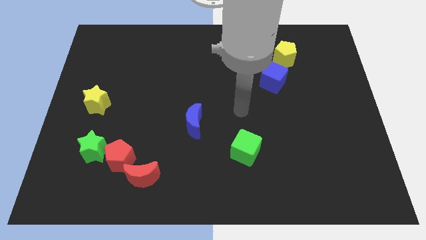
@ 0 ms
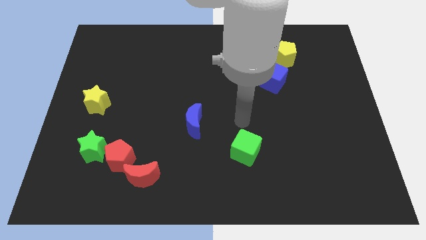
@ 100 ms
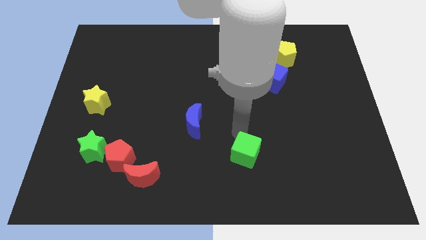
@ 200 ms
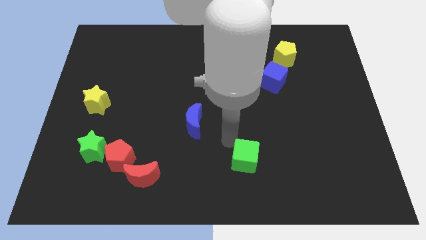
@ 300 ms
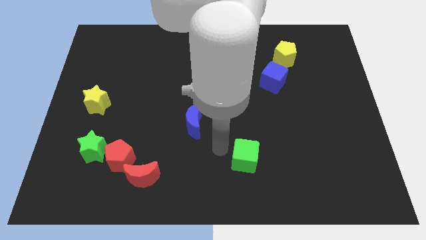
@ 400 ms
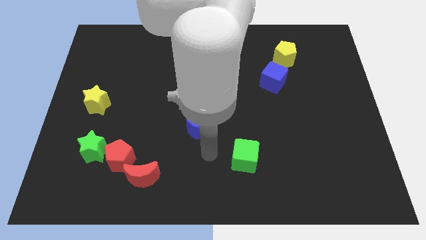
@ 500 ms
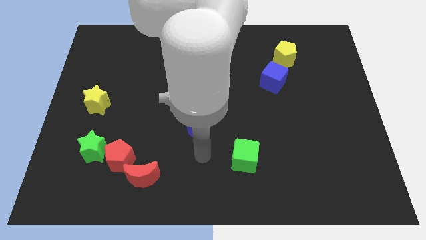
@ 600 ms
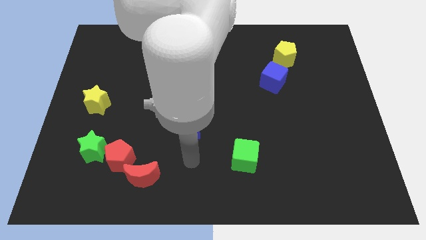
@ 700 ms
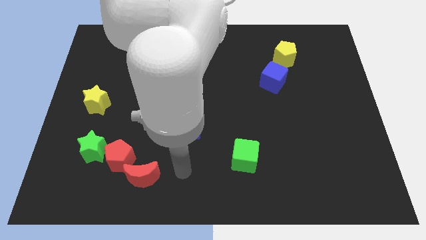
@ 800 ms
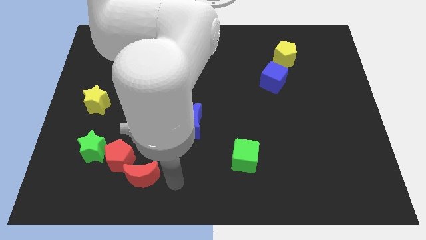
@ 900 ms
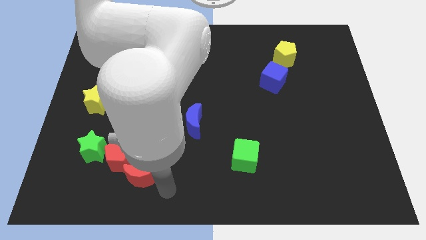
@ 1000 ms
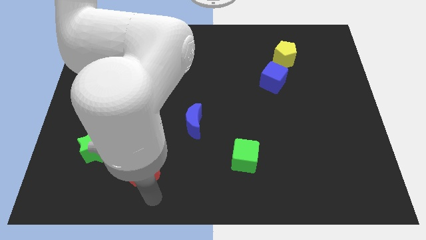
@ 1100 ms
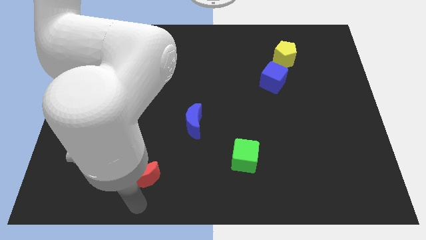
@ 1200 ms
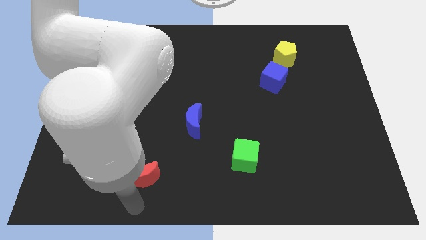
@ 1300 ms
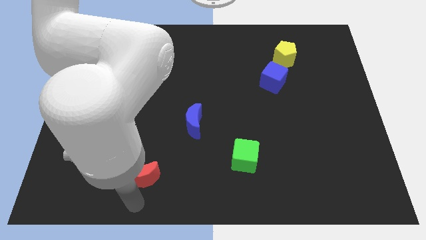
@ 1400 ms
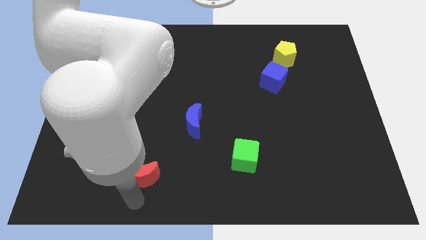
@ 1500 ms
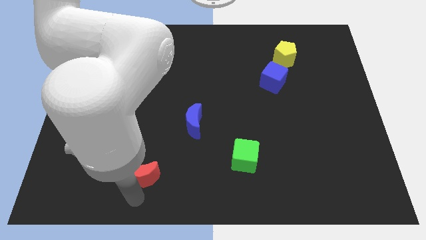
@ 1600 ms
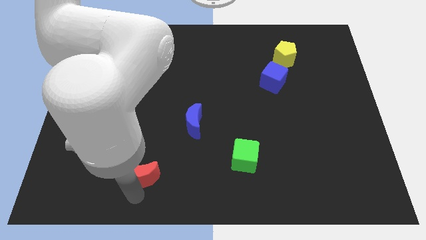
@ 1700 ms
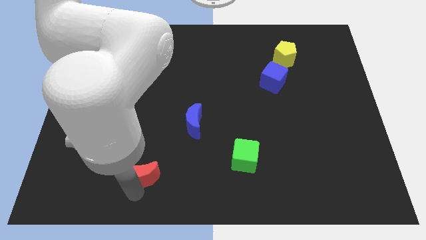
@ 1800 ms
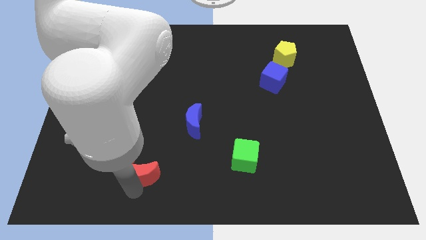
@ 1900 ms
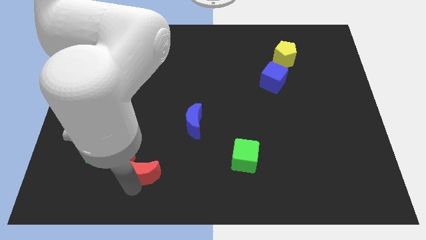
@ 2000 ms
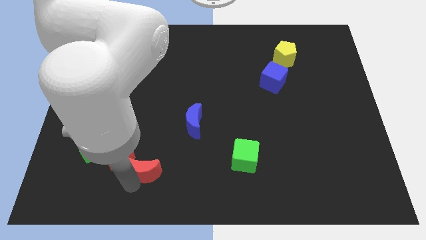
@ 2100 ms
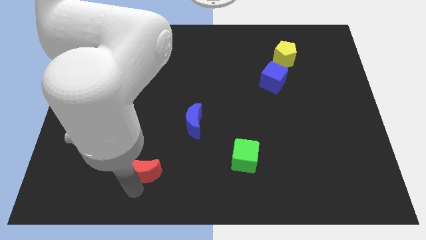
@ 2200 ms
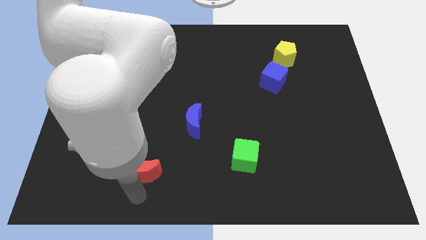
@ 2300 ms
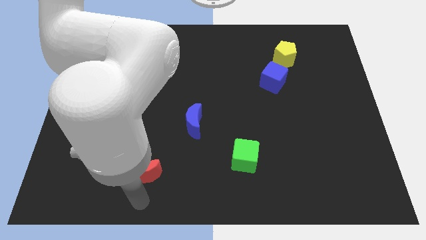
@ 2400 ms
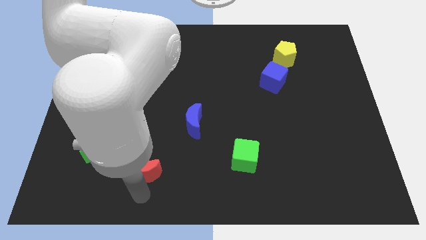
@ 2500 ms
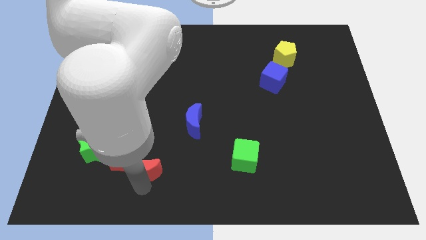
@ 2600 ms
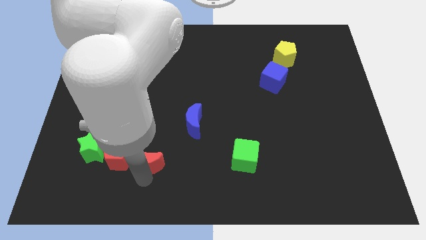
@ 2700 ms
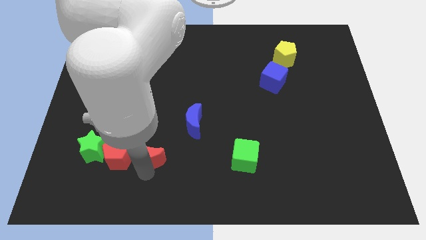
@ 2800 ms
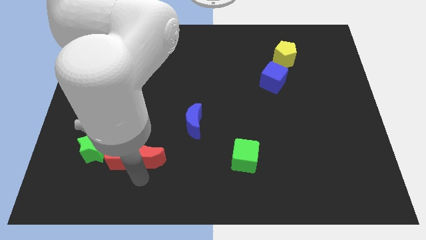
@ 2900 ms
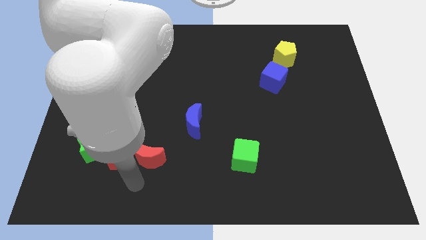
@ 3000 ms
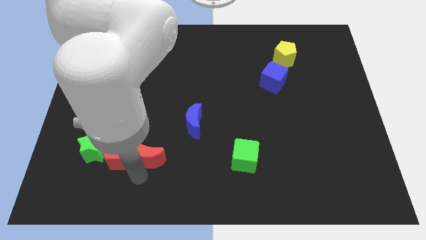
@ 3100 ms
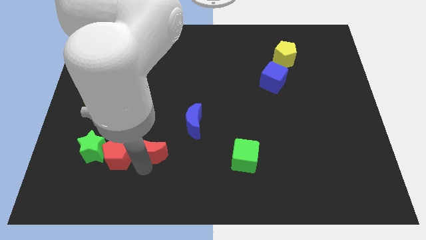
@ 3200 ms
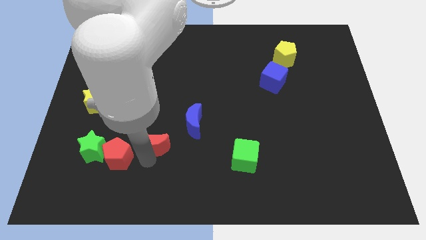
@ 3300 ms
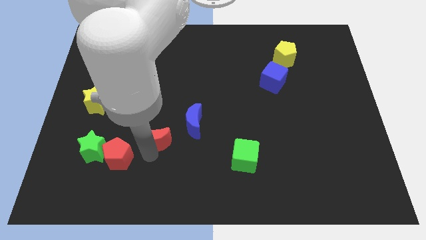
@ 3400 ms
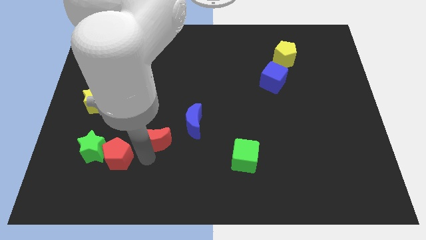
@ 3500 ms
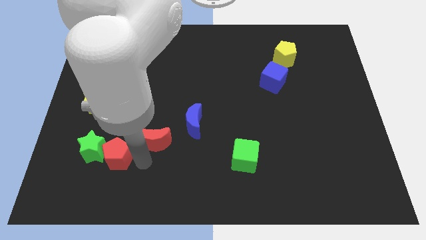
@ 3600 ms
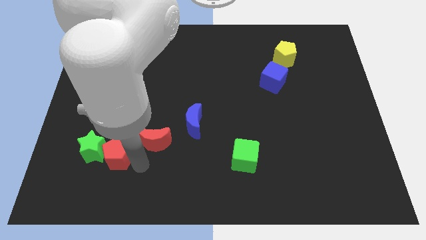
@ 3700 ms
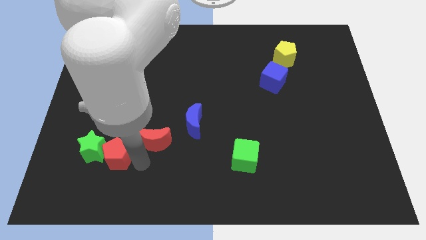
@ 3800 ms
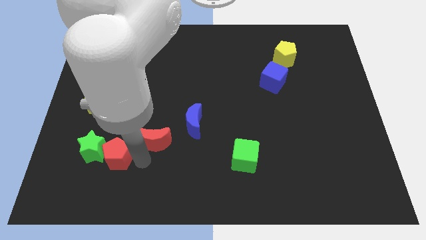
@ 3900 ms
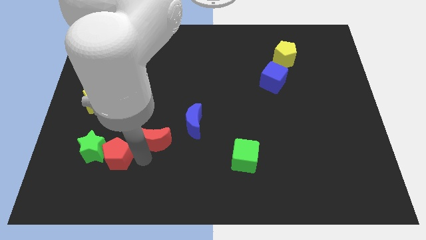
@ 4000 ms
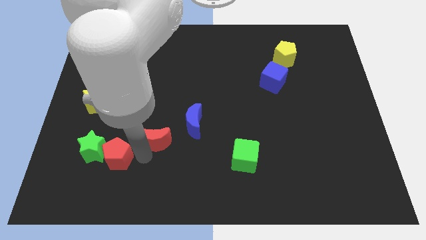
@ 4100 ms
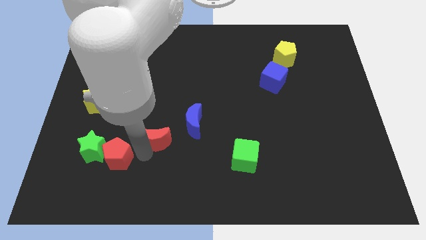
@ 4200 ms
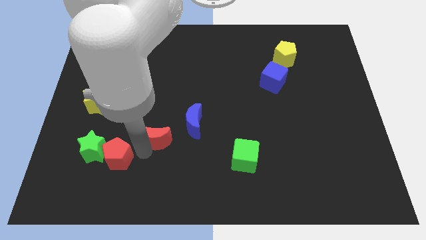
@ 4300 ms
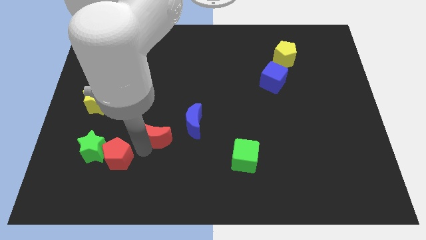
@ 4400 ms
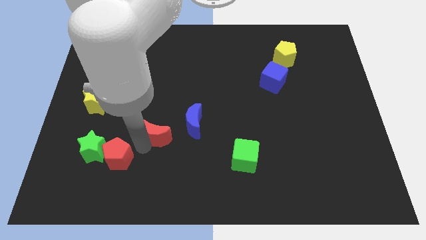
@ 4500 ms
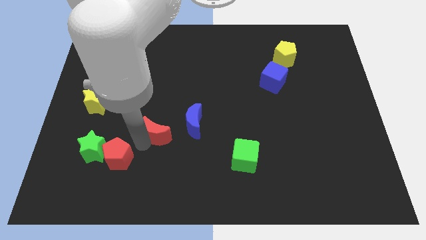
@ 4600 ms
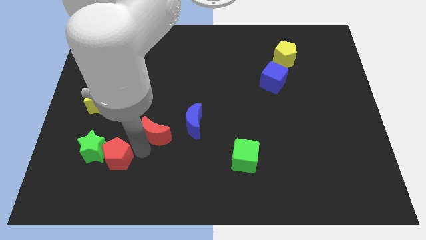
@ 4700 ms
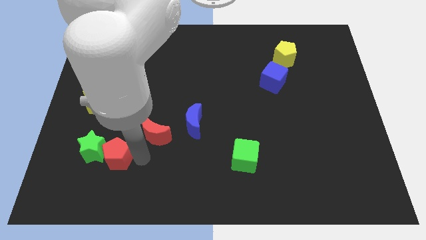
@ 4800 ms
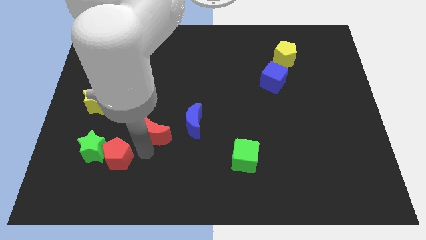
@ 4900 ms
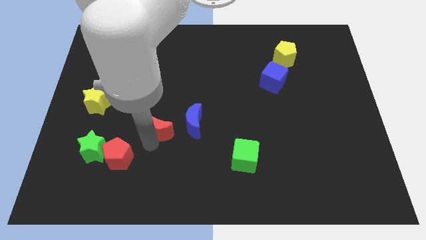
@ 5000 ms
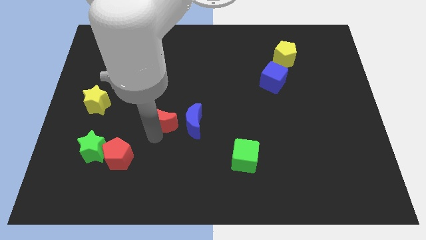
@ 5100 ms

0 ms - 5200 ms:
put the red moon to the top left of the blue moon

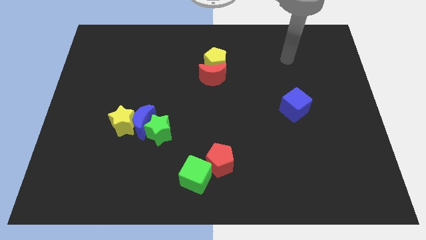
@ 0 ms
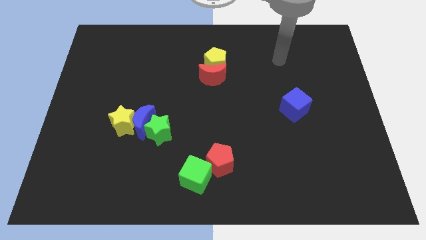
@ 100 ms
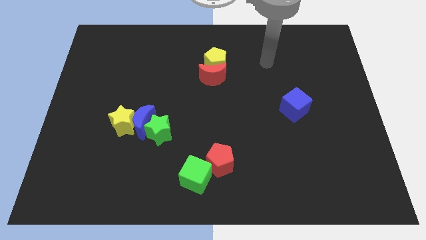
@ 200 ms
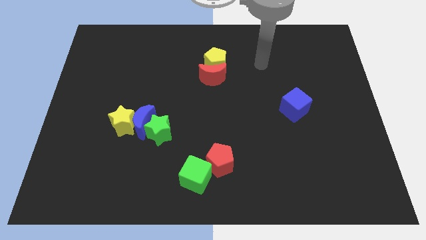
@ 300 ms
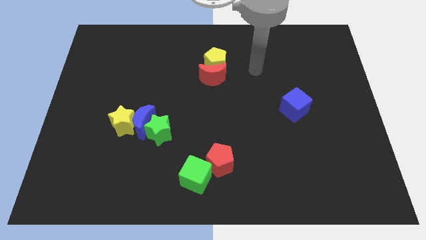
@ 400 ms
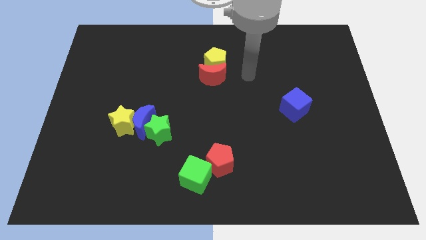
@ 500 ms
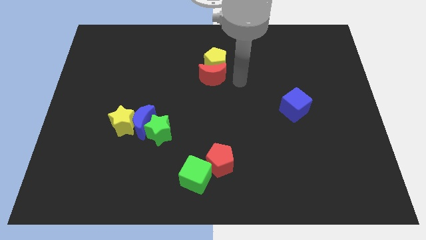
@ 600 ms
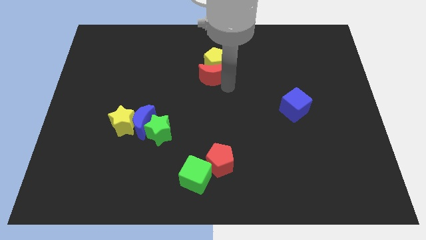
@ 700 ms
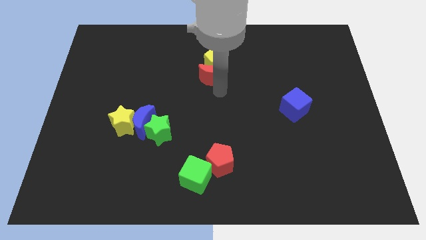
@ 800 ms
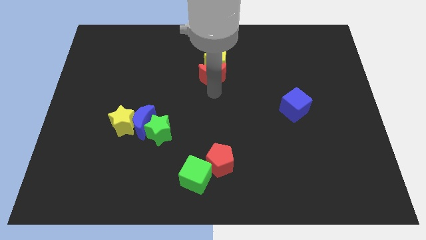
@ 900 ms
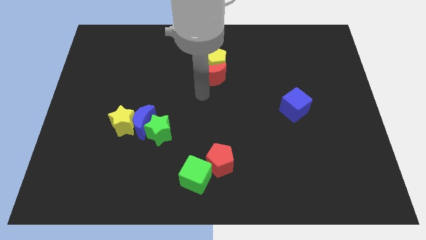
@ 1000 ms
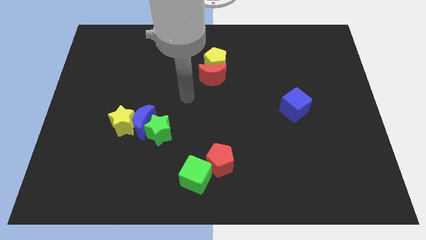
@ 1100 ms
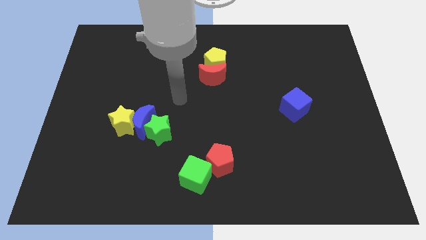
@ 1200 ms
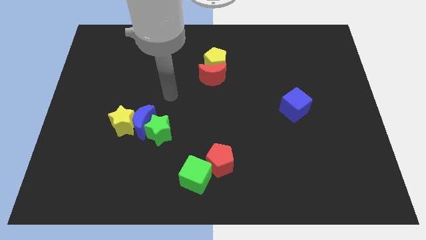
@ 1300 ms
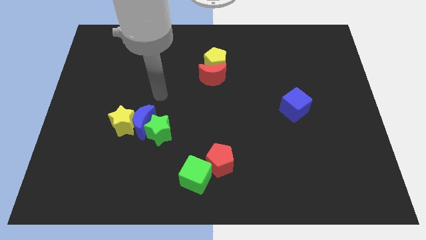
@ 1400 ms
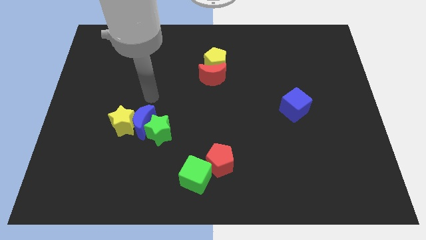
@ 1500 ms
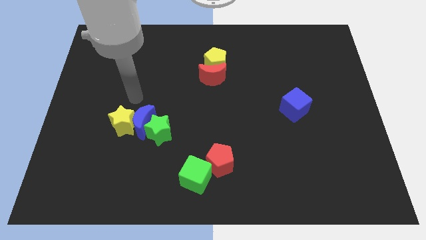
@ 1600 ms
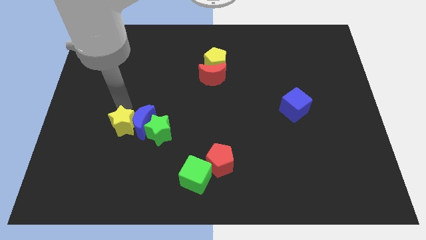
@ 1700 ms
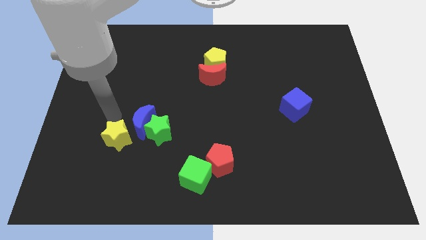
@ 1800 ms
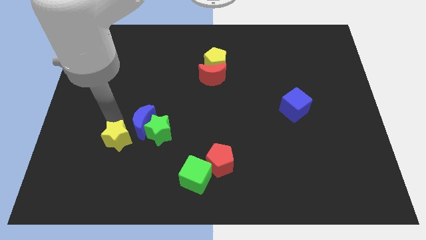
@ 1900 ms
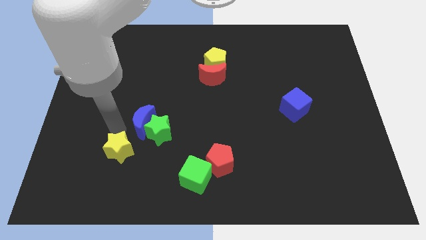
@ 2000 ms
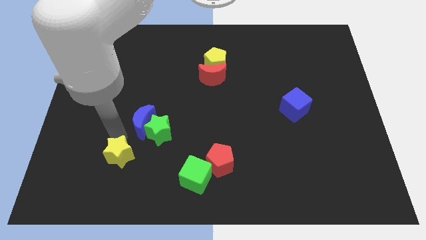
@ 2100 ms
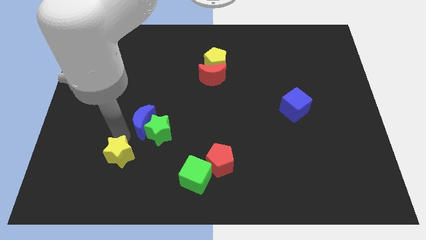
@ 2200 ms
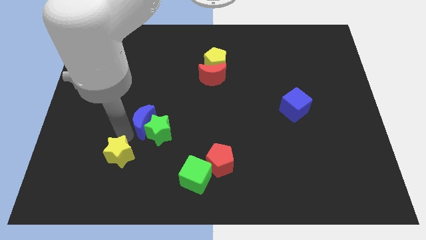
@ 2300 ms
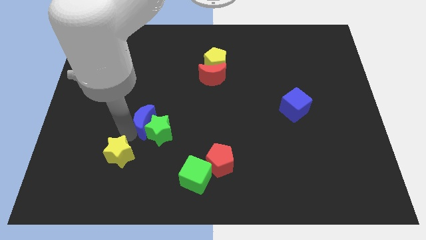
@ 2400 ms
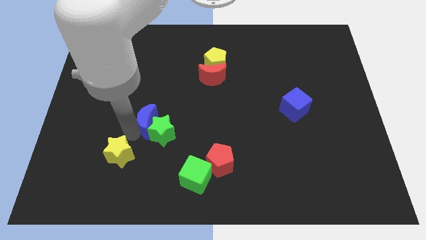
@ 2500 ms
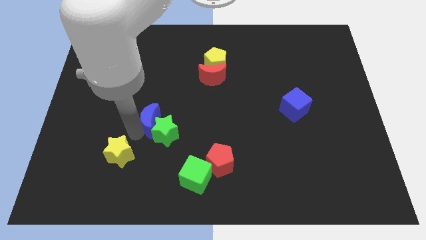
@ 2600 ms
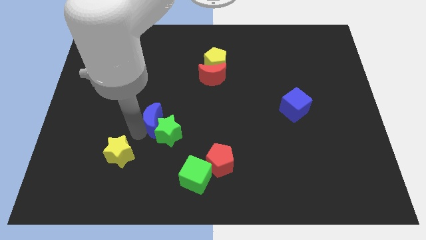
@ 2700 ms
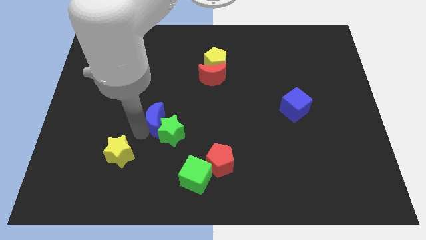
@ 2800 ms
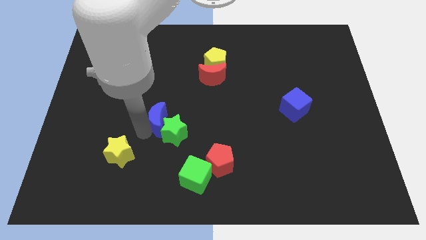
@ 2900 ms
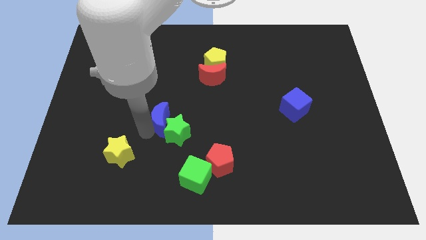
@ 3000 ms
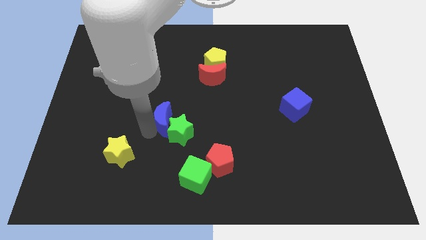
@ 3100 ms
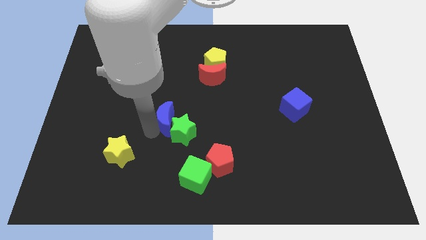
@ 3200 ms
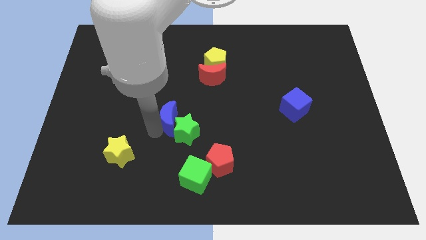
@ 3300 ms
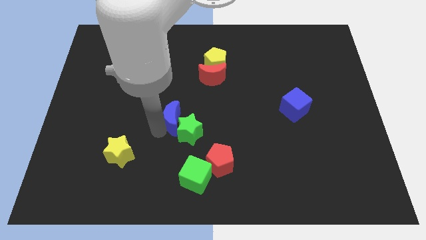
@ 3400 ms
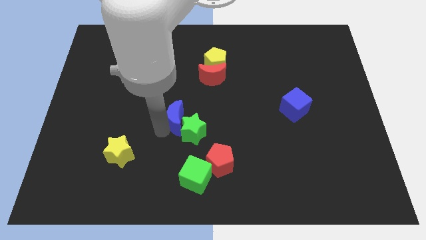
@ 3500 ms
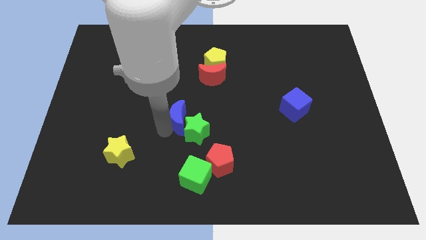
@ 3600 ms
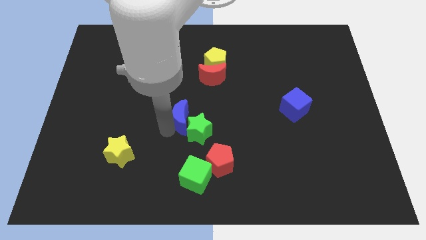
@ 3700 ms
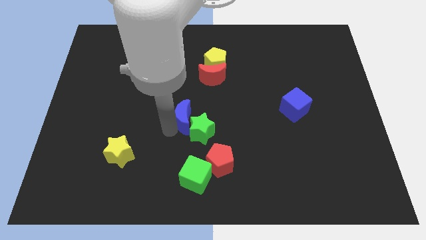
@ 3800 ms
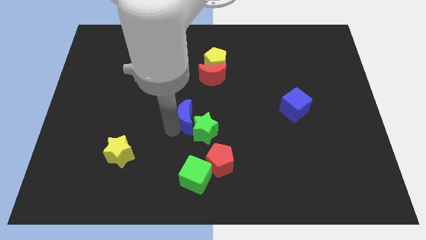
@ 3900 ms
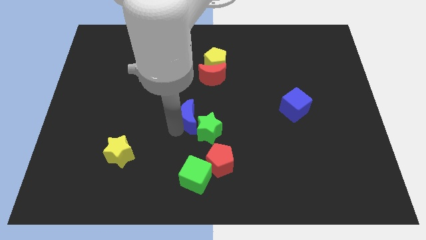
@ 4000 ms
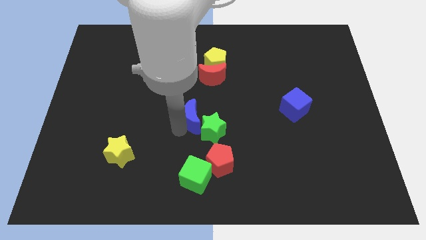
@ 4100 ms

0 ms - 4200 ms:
push the blue moon to the bottom of the red moon
